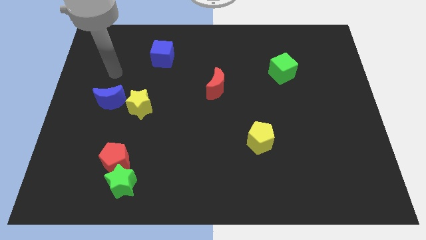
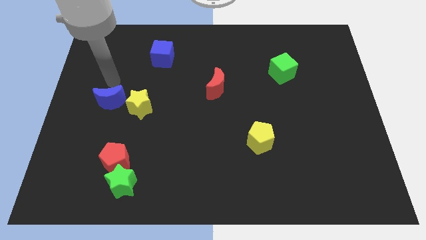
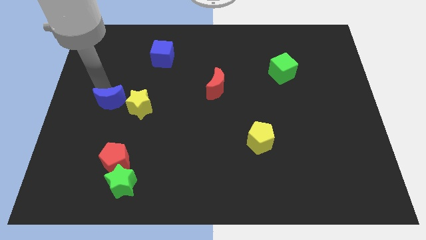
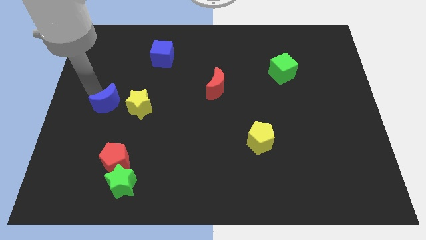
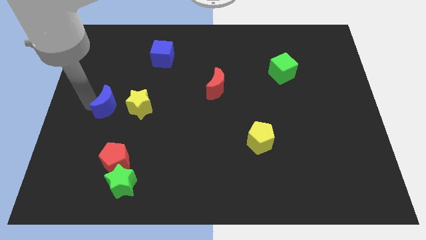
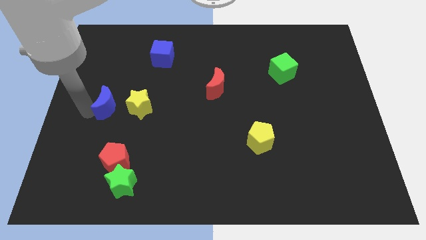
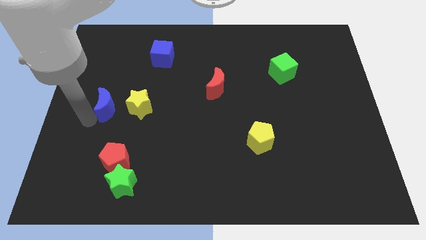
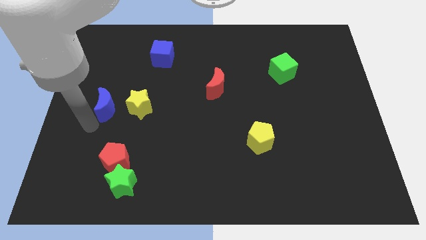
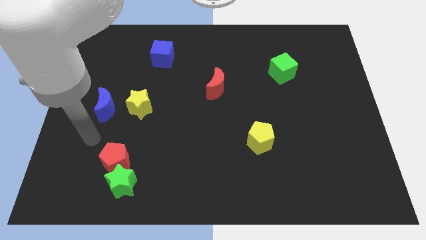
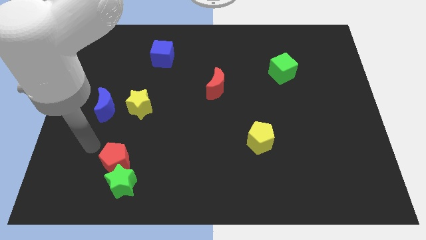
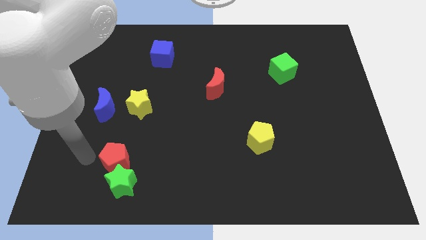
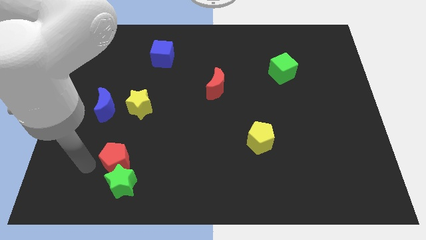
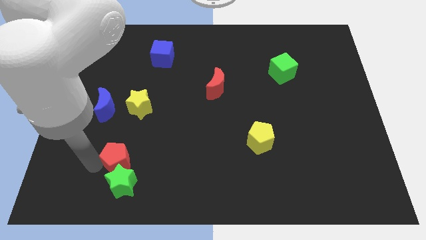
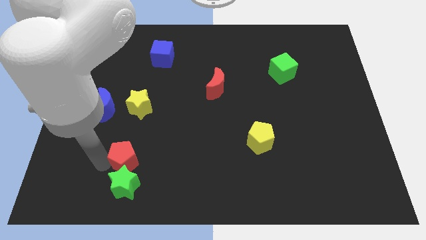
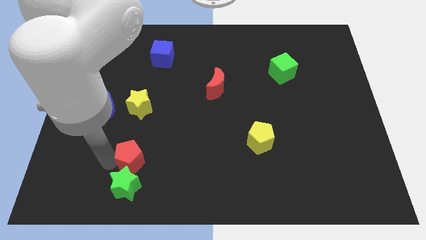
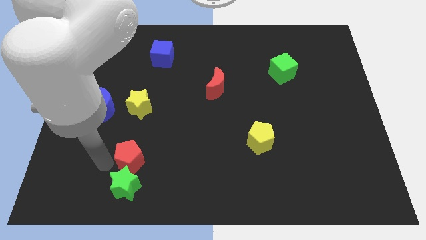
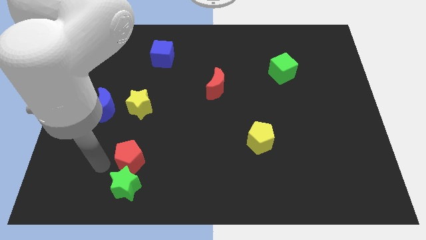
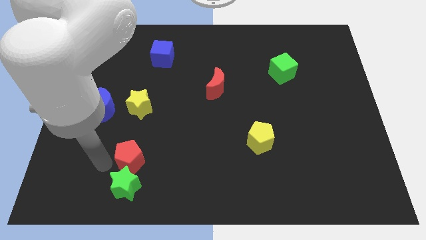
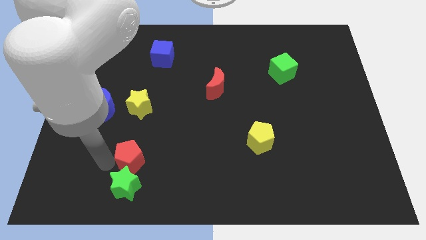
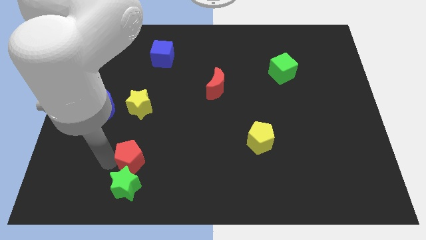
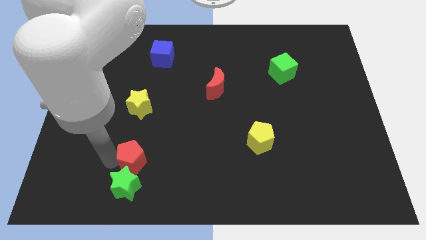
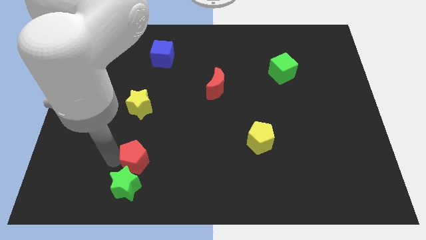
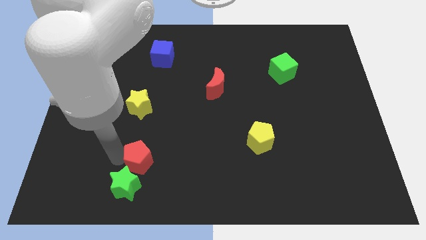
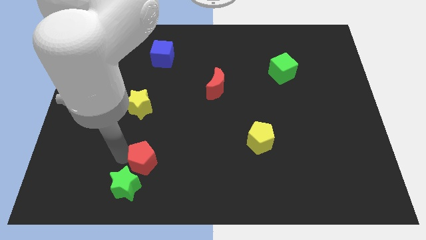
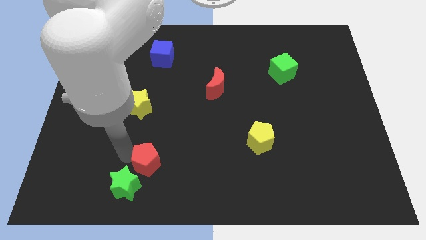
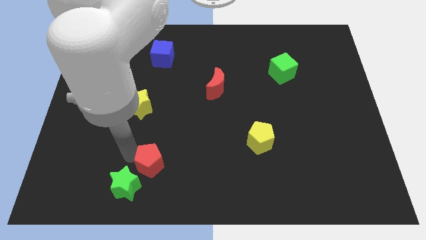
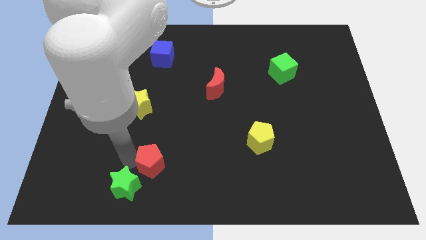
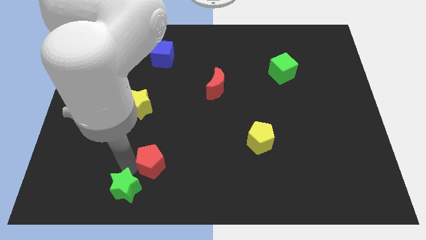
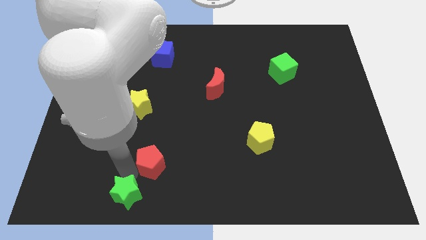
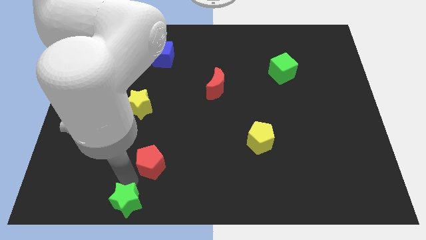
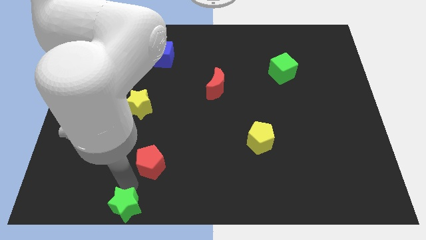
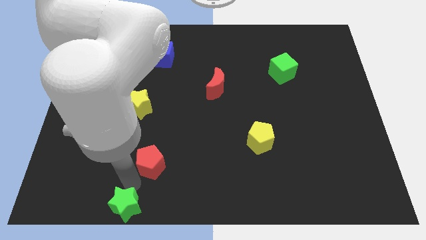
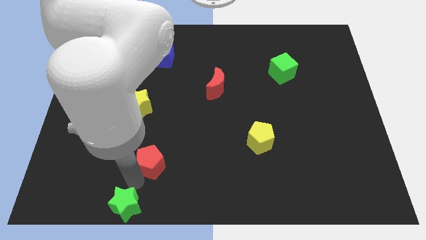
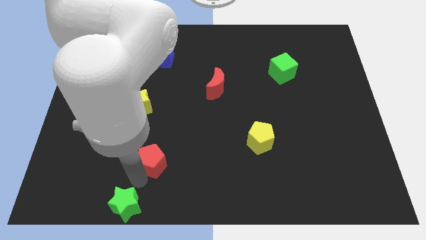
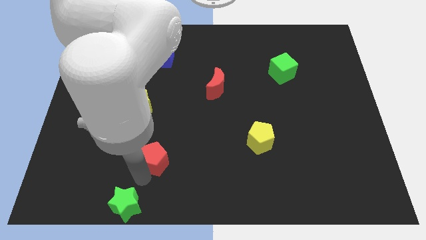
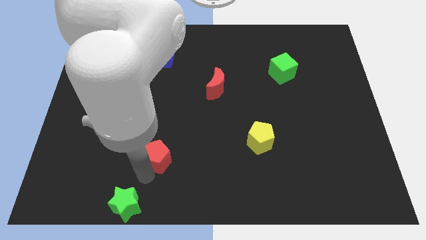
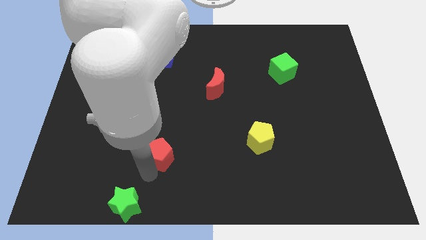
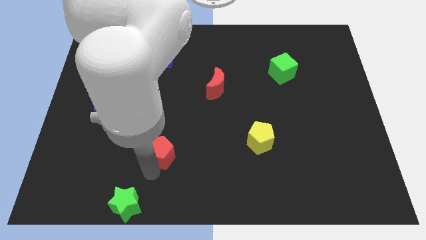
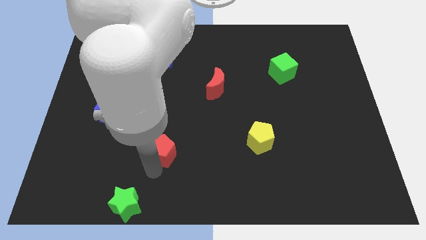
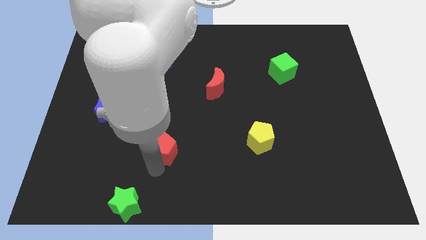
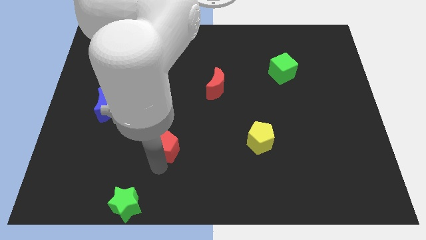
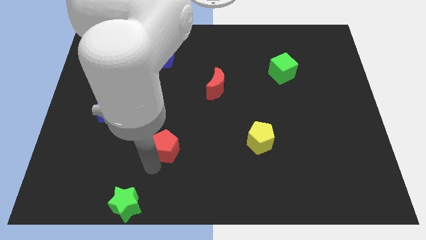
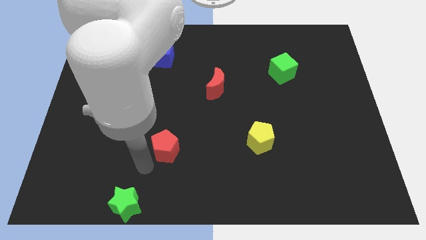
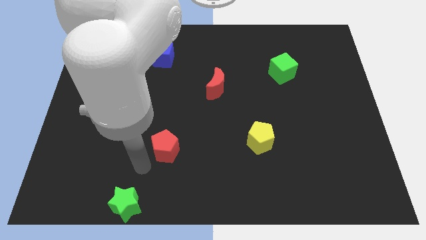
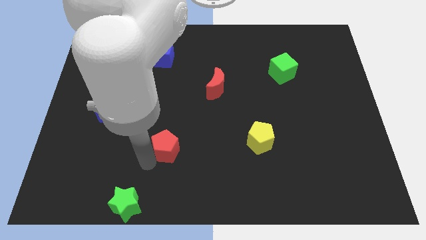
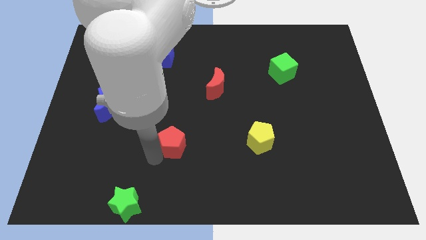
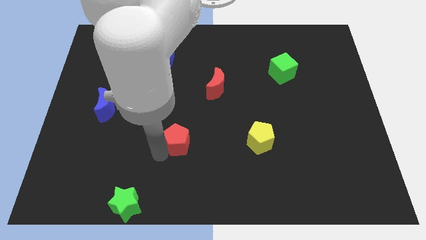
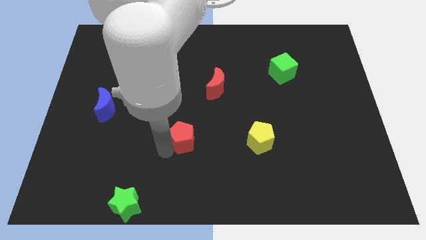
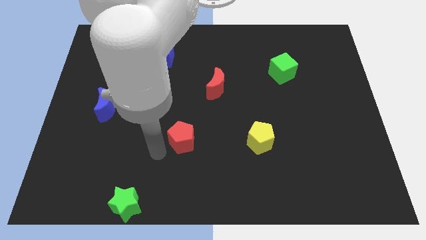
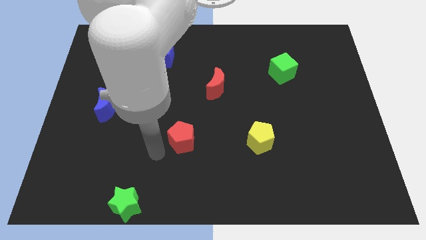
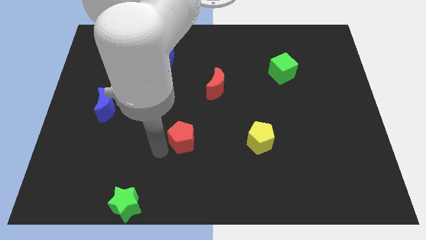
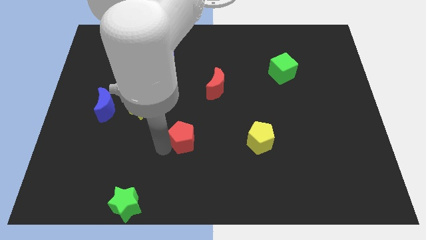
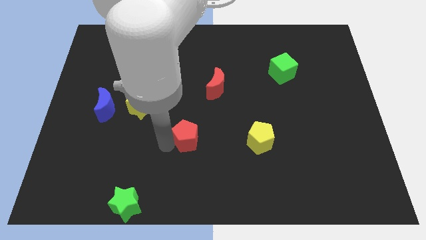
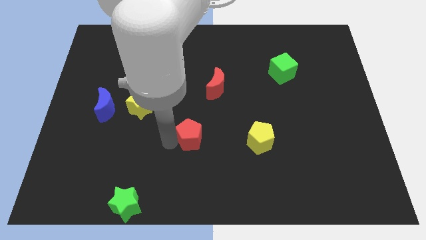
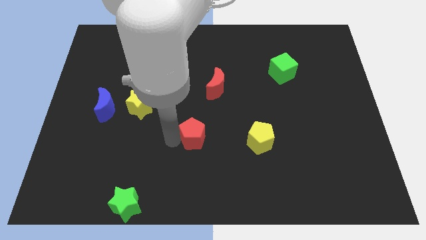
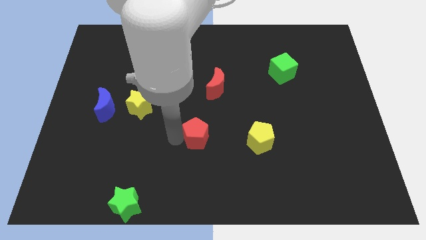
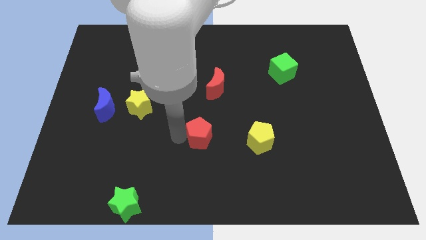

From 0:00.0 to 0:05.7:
move the red pentagon to the bottom side of the red moon

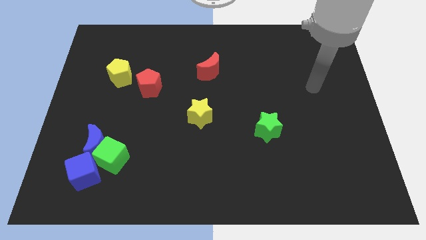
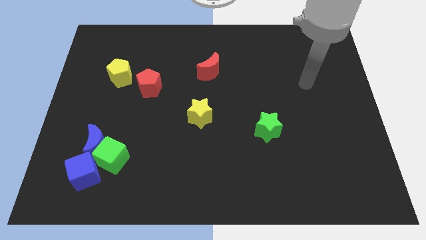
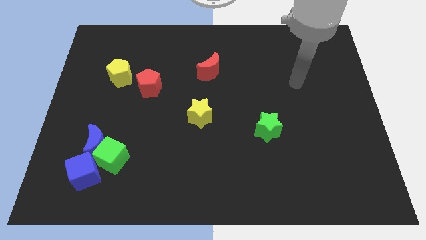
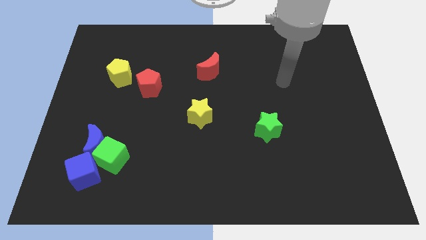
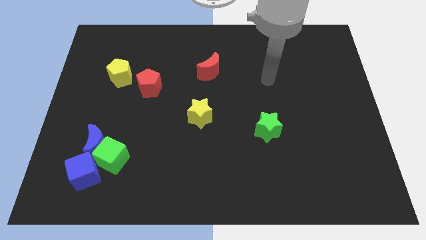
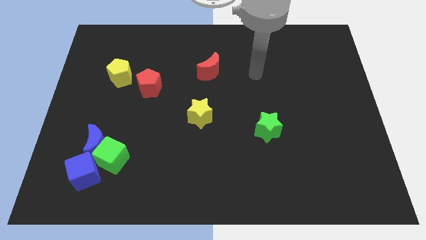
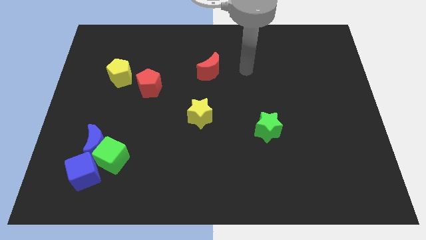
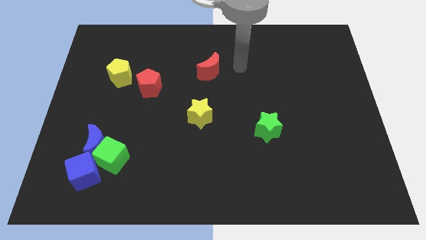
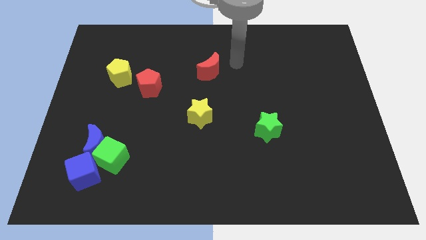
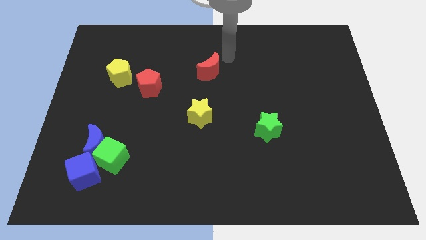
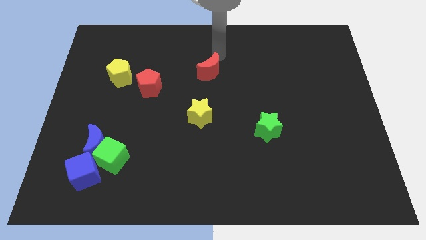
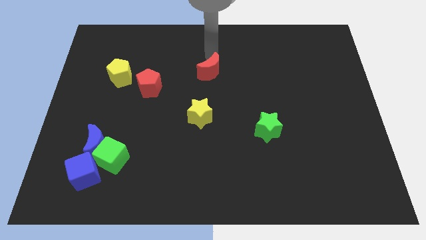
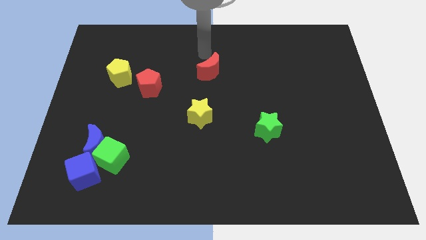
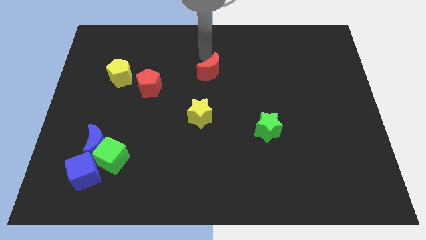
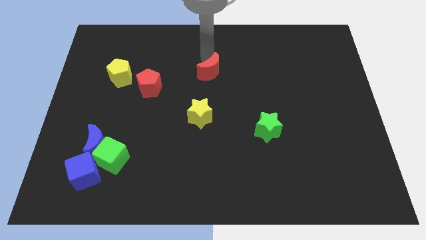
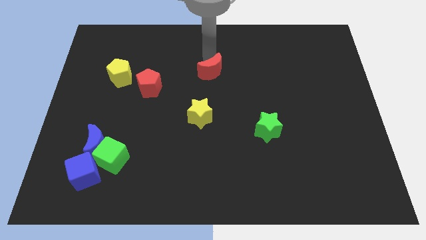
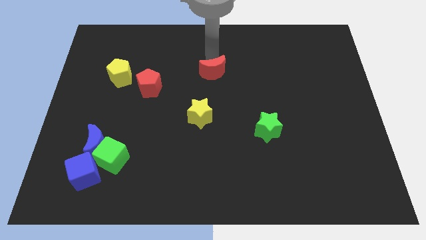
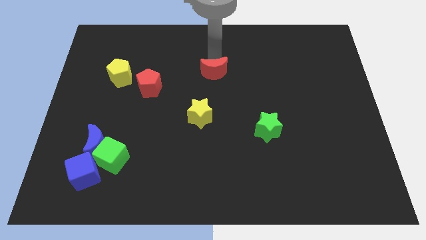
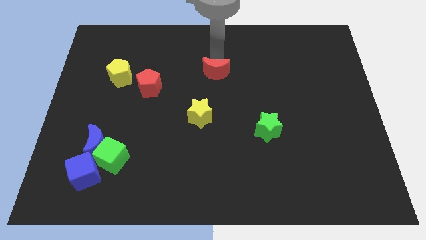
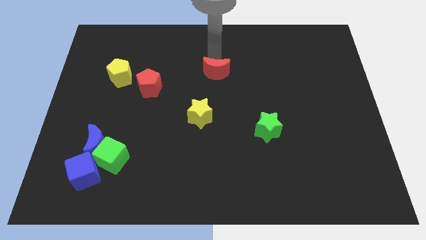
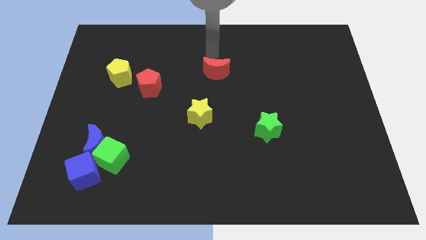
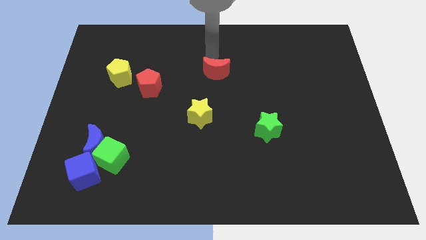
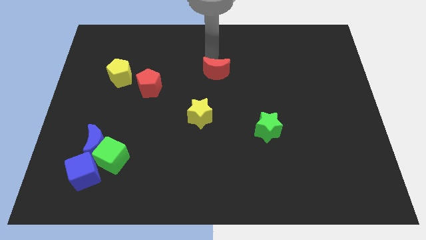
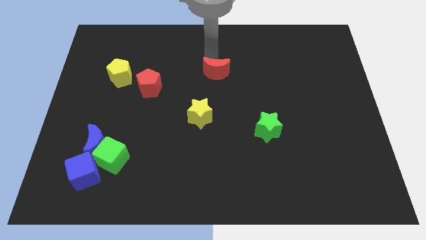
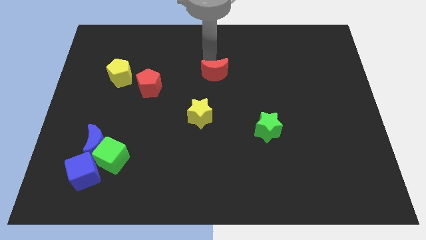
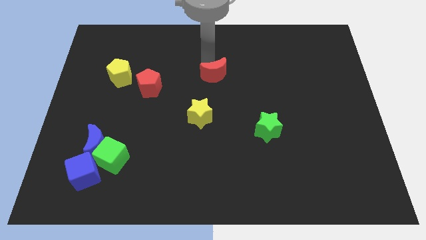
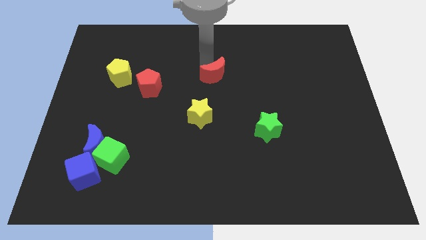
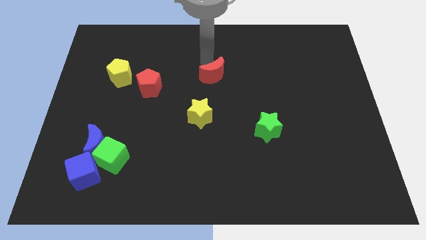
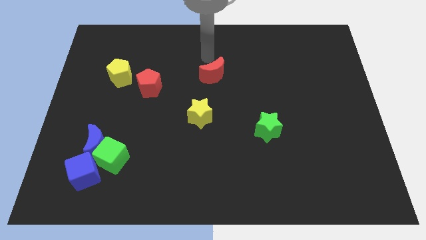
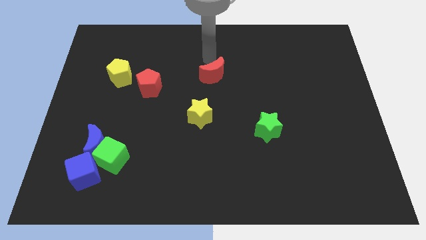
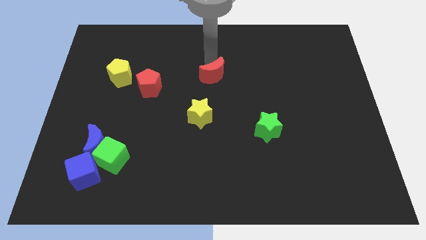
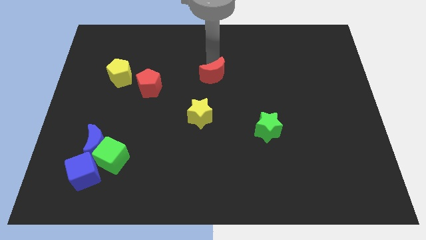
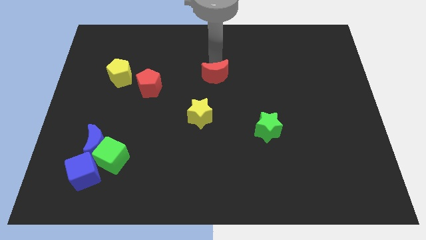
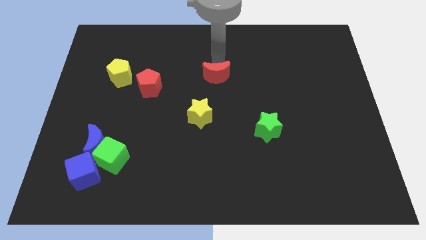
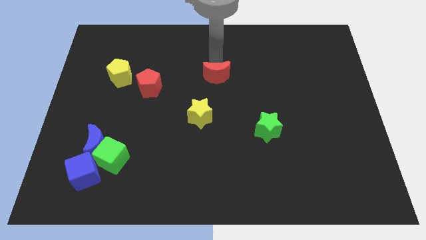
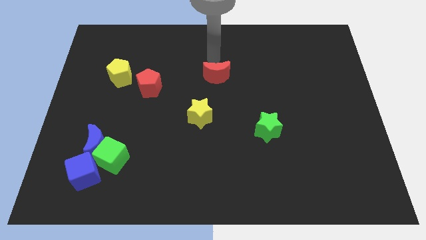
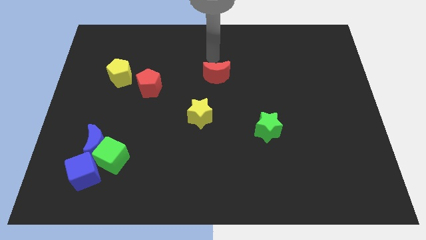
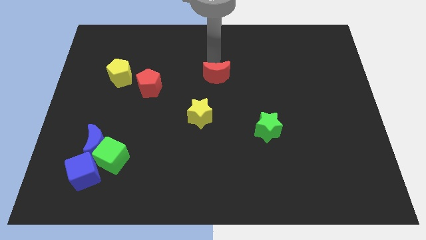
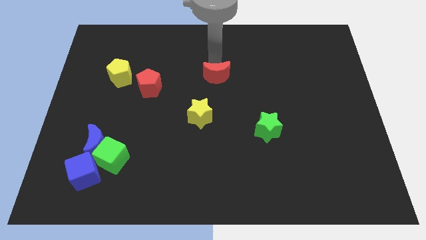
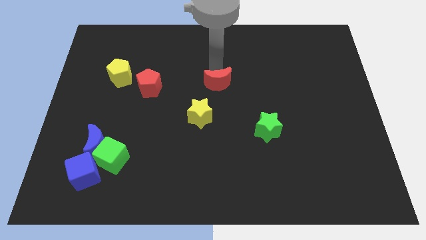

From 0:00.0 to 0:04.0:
push the red moon to the top right of the yellow star
